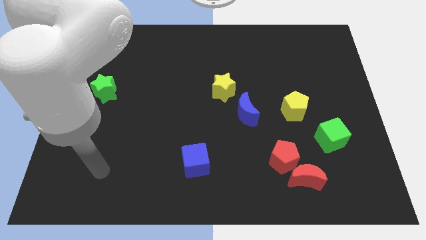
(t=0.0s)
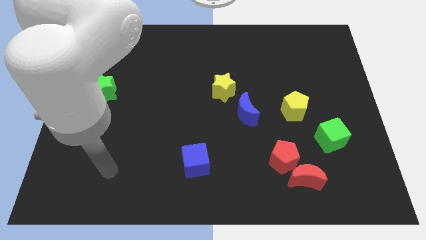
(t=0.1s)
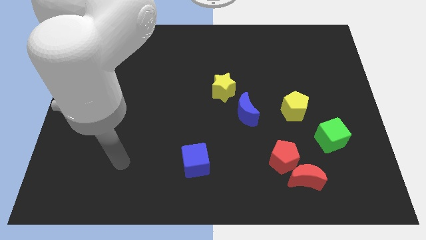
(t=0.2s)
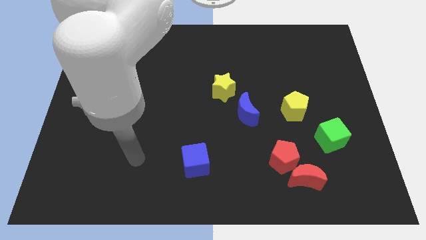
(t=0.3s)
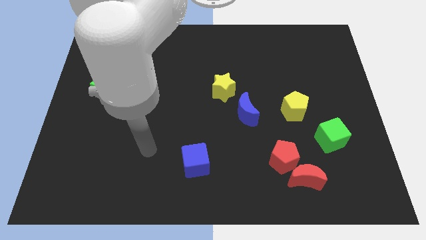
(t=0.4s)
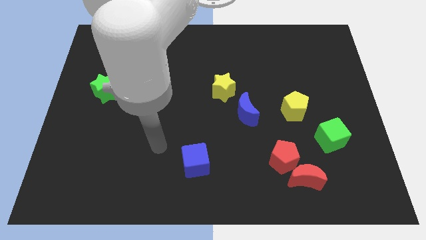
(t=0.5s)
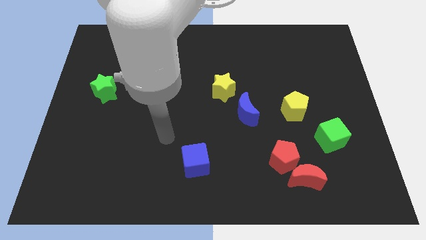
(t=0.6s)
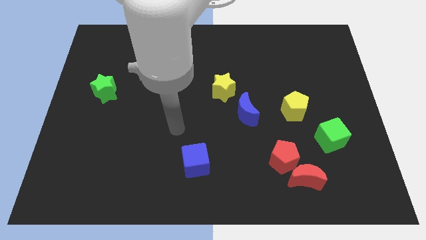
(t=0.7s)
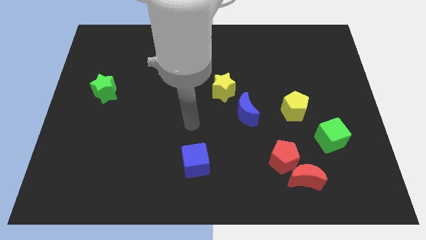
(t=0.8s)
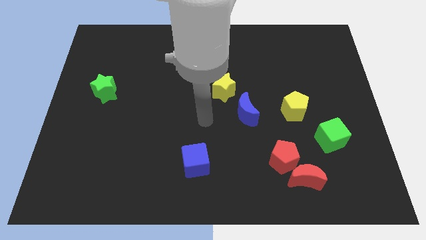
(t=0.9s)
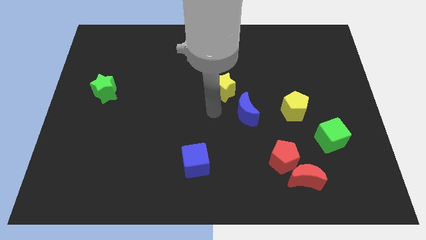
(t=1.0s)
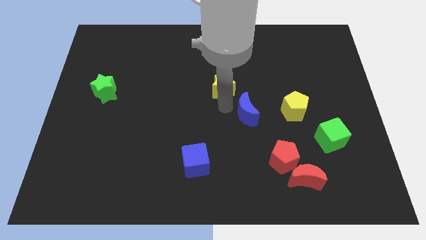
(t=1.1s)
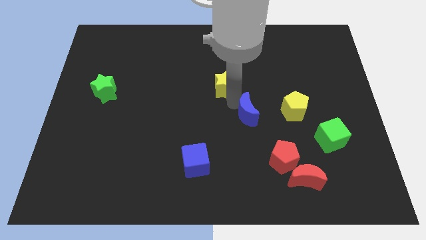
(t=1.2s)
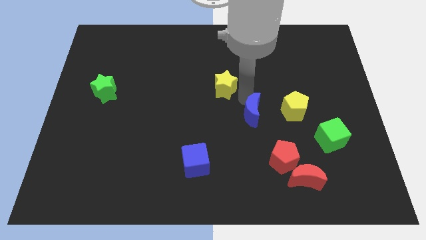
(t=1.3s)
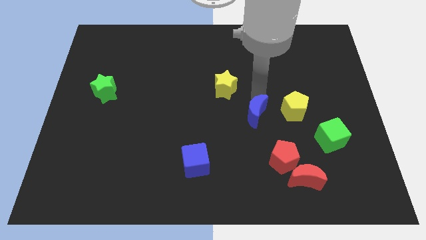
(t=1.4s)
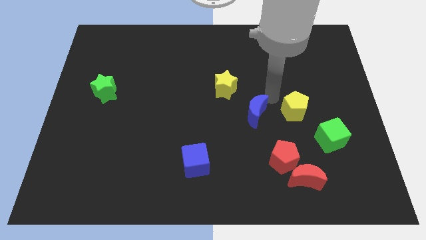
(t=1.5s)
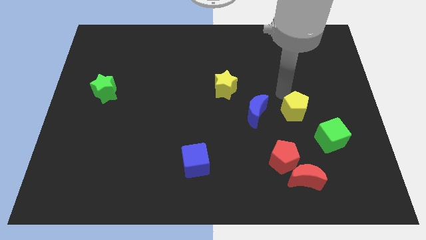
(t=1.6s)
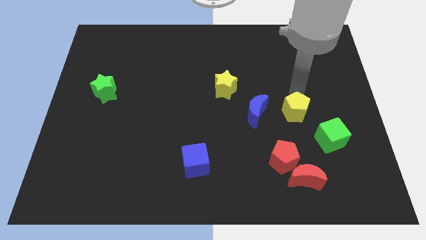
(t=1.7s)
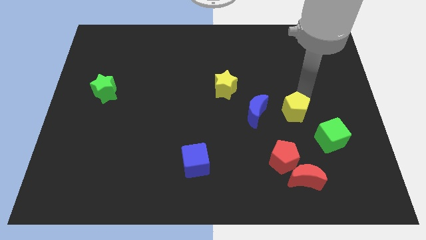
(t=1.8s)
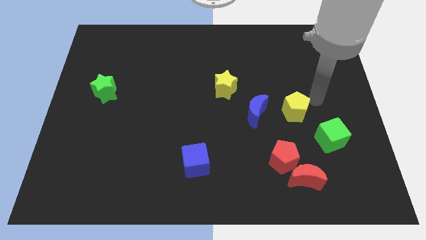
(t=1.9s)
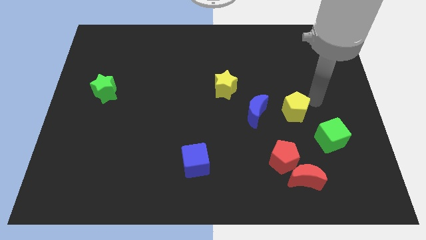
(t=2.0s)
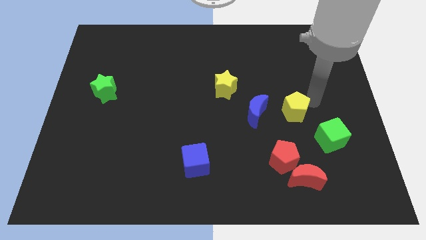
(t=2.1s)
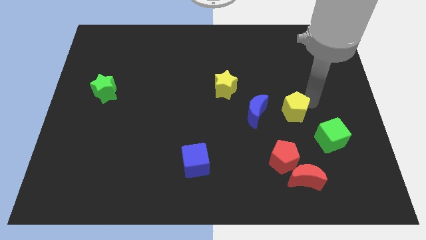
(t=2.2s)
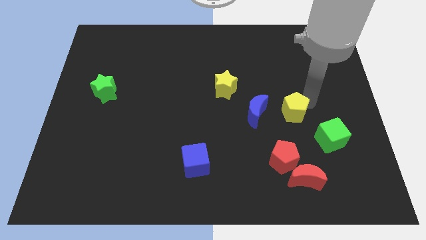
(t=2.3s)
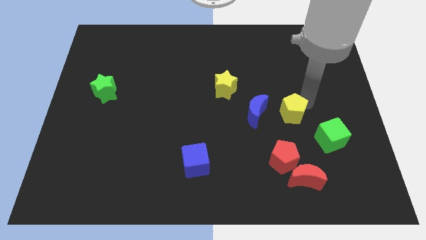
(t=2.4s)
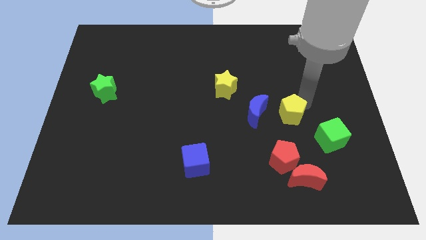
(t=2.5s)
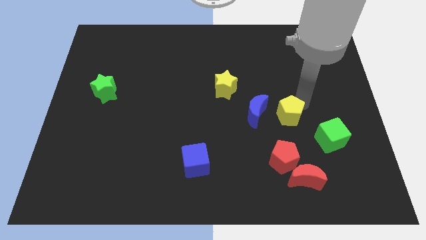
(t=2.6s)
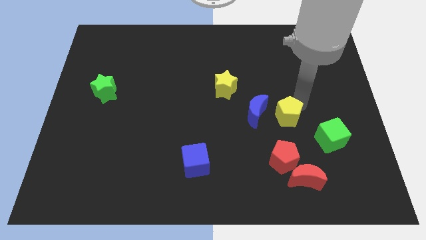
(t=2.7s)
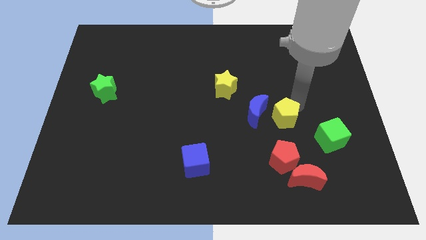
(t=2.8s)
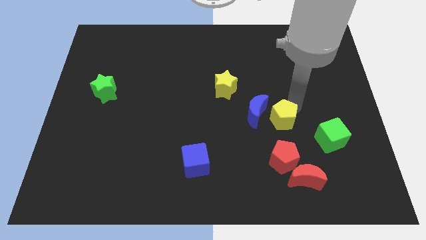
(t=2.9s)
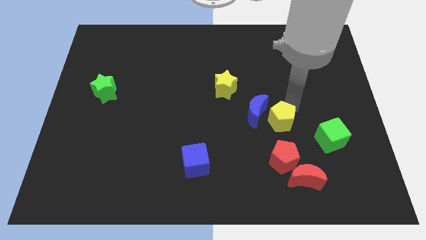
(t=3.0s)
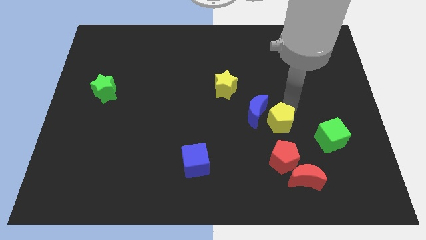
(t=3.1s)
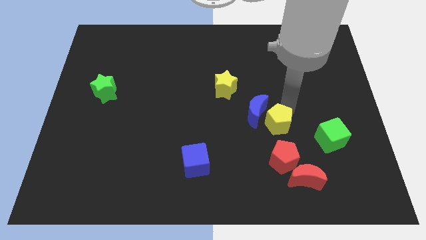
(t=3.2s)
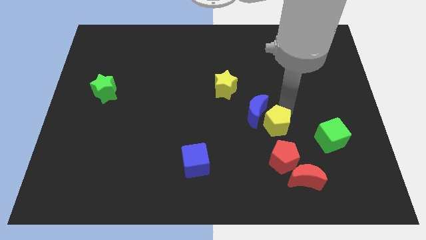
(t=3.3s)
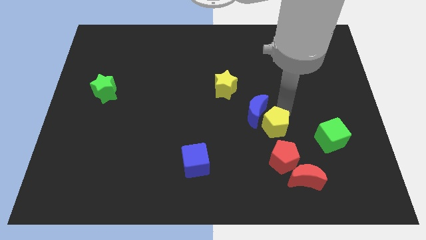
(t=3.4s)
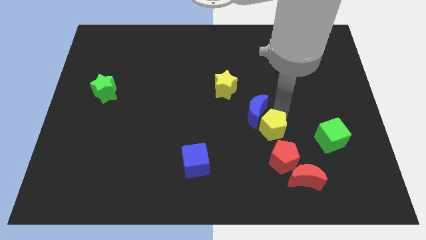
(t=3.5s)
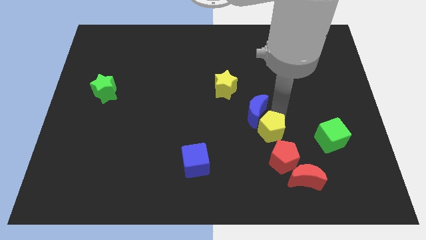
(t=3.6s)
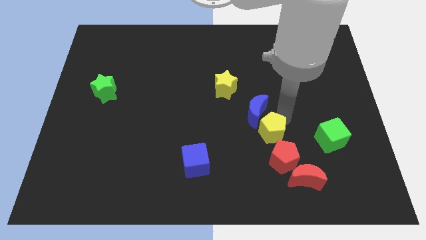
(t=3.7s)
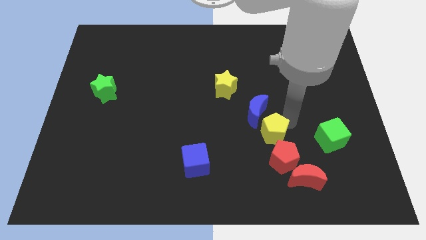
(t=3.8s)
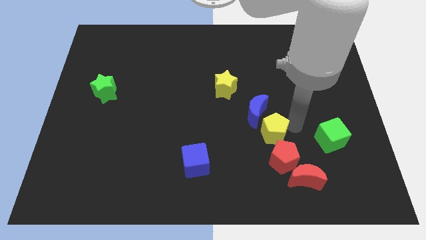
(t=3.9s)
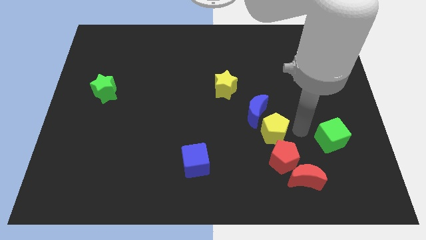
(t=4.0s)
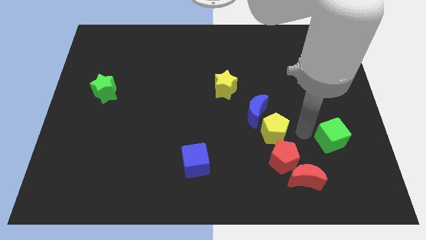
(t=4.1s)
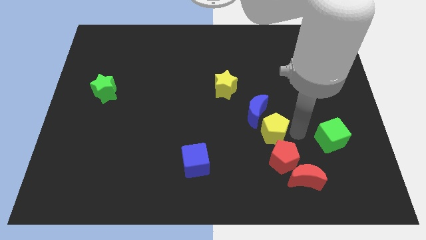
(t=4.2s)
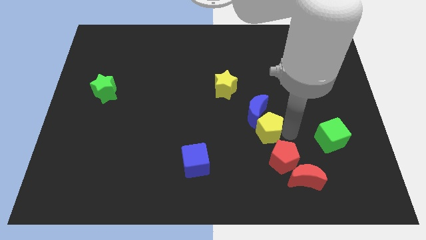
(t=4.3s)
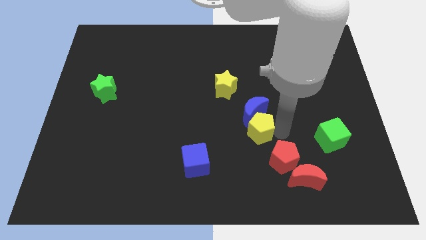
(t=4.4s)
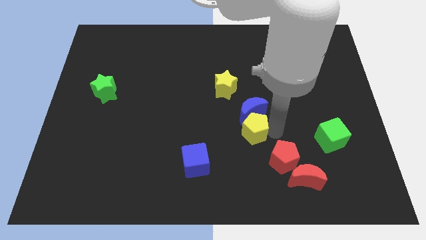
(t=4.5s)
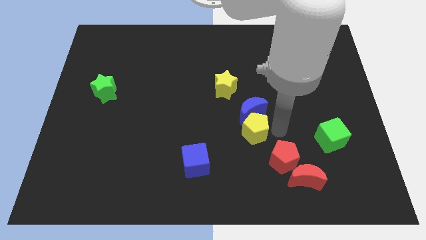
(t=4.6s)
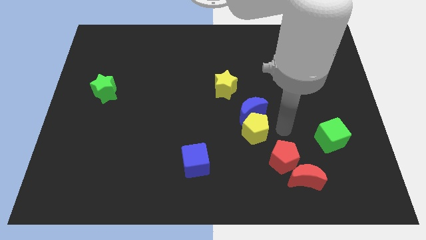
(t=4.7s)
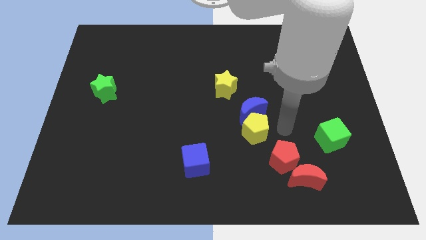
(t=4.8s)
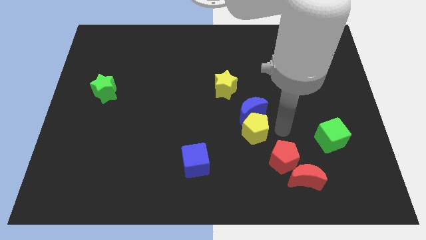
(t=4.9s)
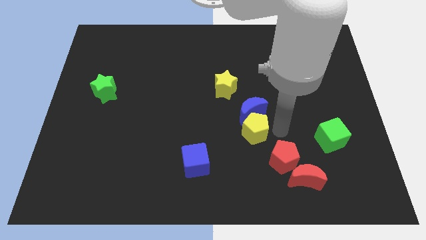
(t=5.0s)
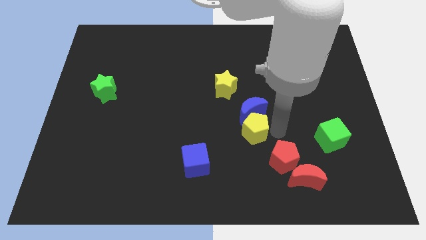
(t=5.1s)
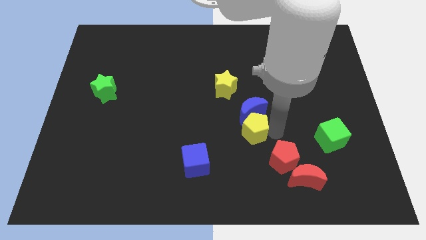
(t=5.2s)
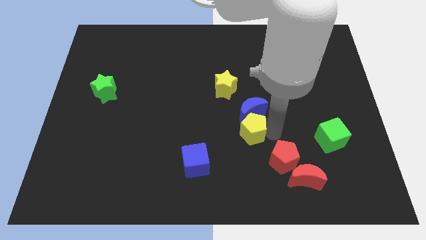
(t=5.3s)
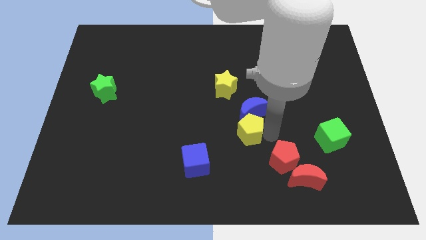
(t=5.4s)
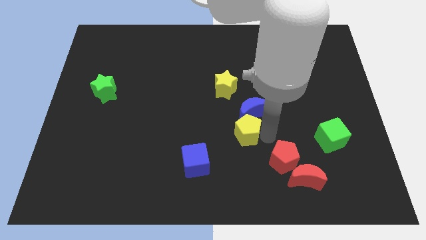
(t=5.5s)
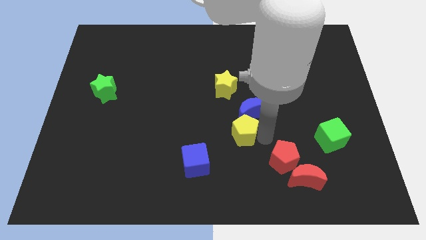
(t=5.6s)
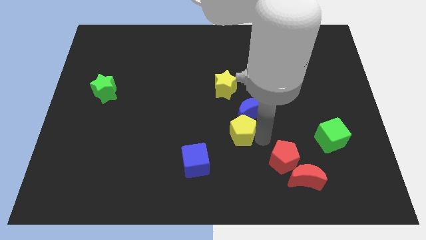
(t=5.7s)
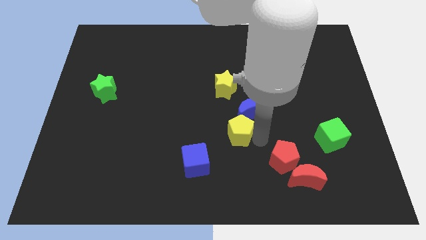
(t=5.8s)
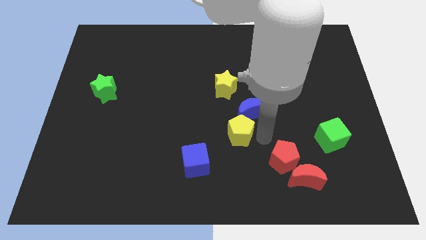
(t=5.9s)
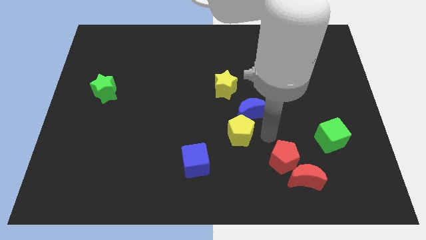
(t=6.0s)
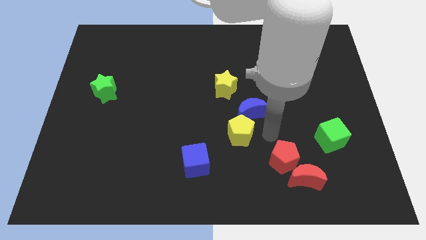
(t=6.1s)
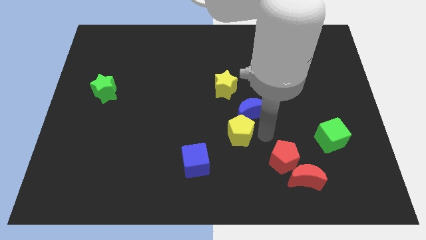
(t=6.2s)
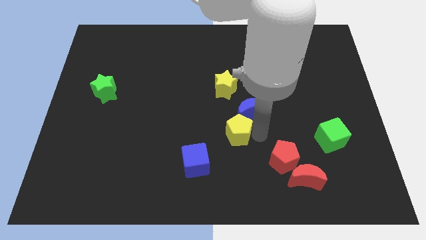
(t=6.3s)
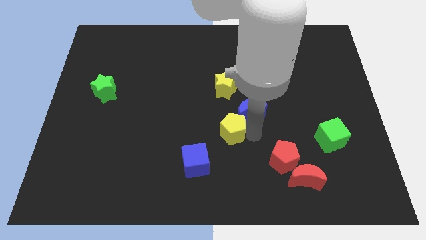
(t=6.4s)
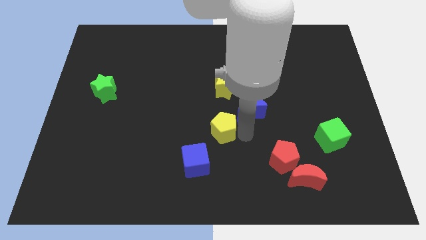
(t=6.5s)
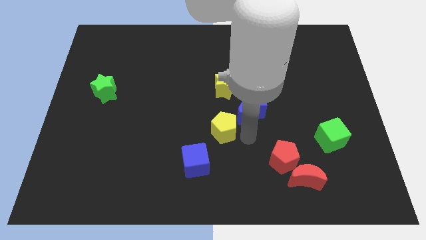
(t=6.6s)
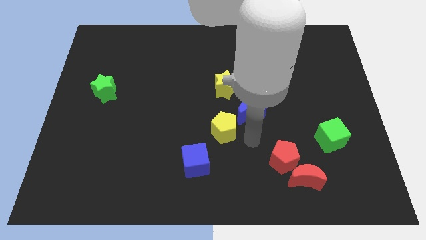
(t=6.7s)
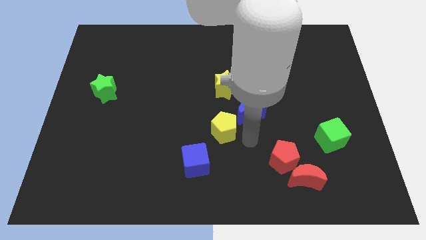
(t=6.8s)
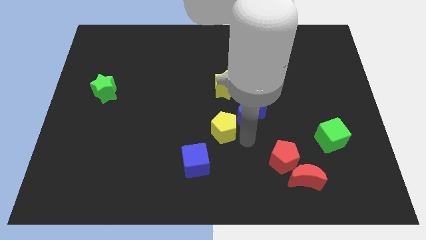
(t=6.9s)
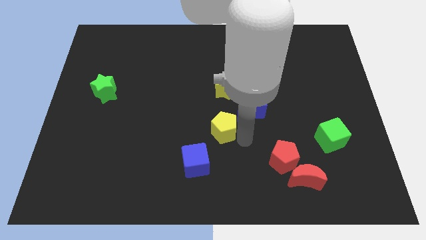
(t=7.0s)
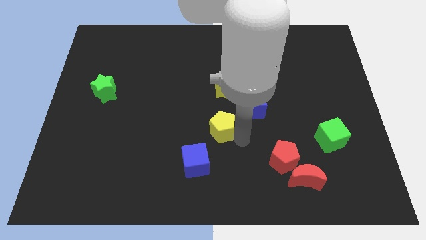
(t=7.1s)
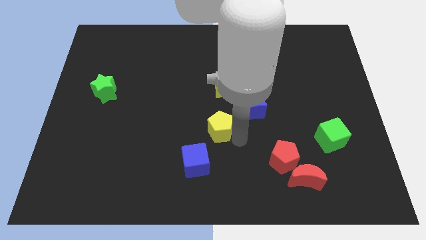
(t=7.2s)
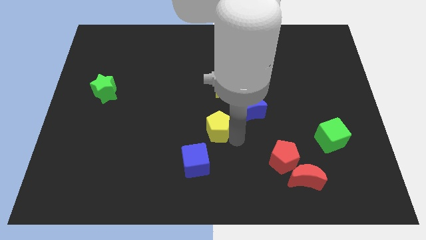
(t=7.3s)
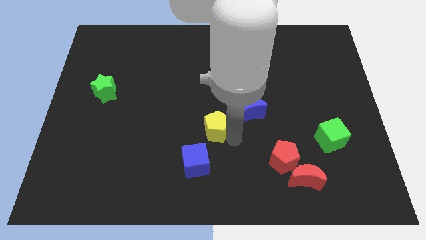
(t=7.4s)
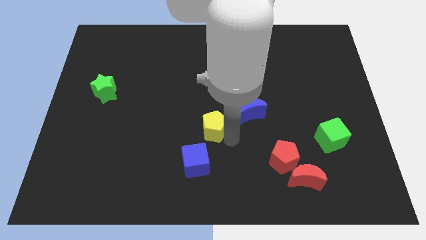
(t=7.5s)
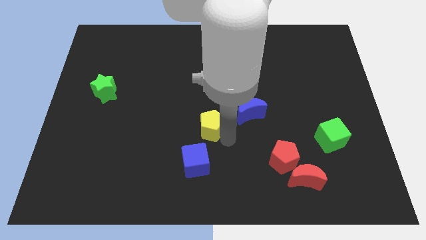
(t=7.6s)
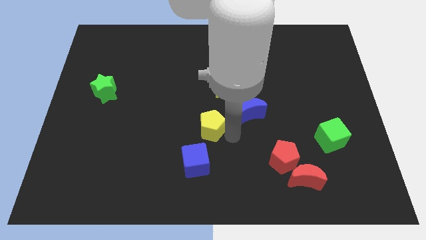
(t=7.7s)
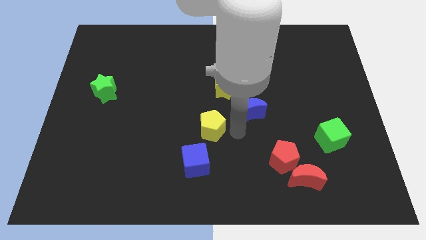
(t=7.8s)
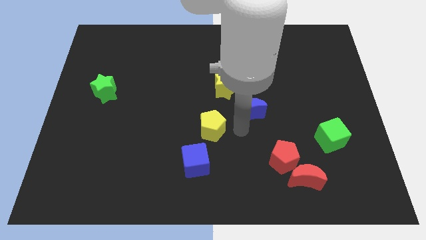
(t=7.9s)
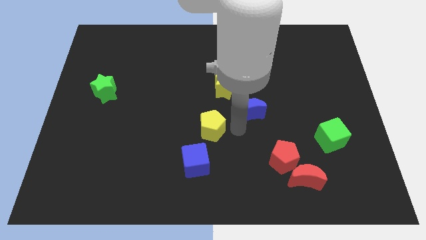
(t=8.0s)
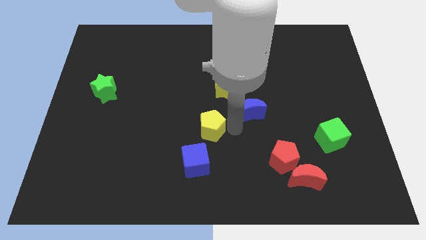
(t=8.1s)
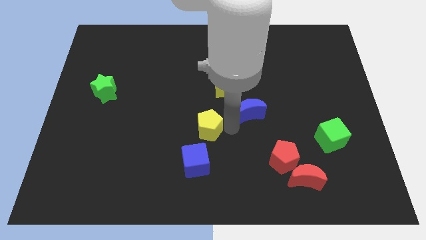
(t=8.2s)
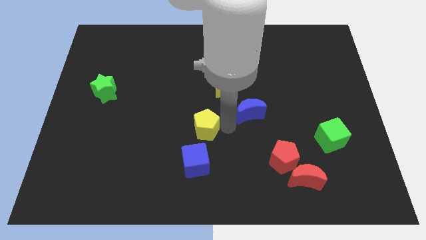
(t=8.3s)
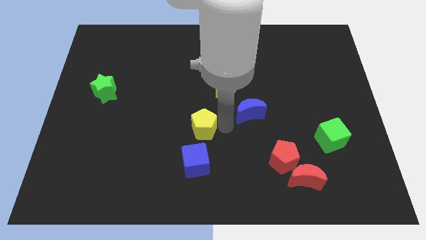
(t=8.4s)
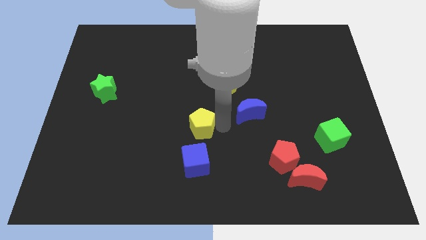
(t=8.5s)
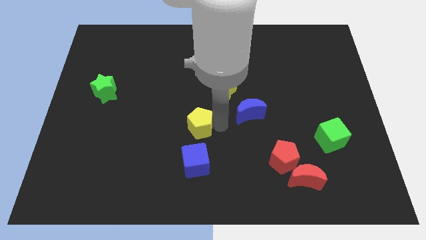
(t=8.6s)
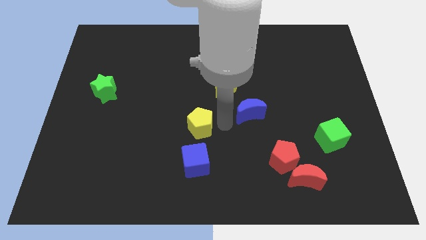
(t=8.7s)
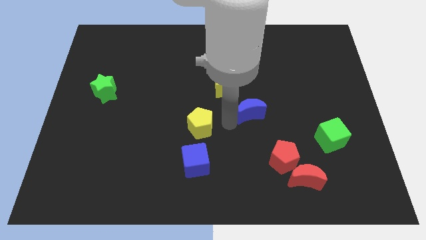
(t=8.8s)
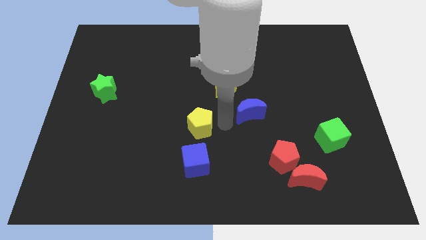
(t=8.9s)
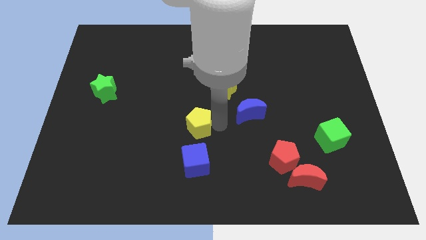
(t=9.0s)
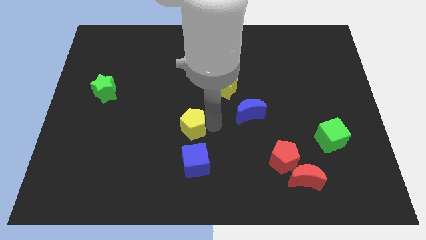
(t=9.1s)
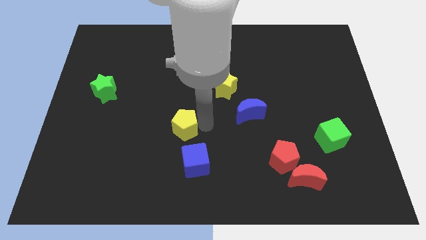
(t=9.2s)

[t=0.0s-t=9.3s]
move the yellow pentagon diagonally up and to the left of the blue cube
